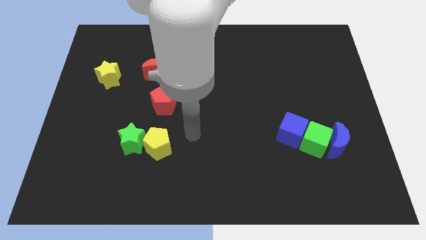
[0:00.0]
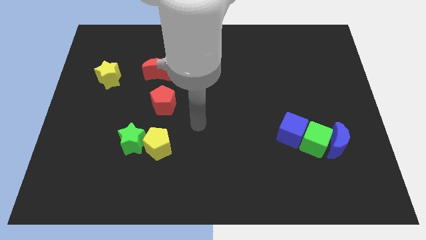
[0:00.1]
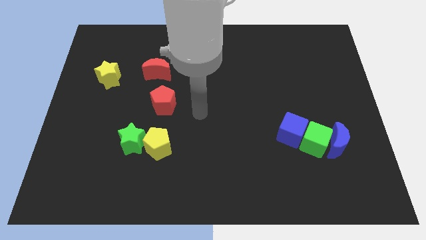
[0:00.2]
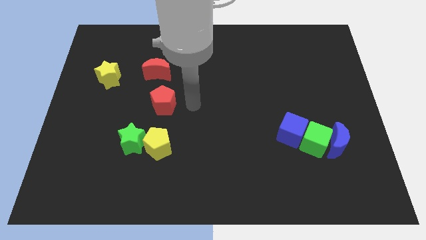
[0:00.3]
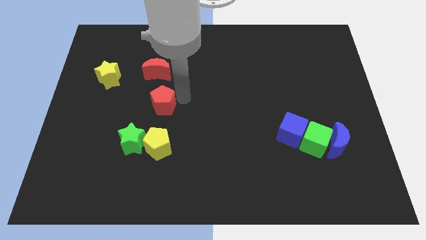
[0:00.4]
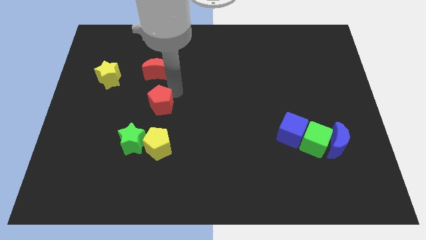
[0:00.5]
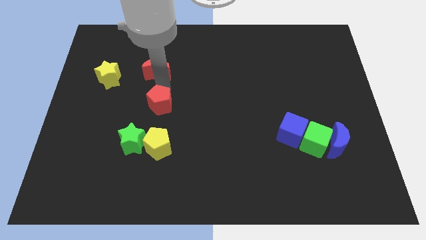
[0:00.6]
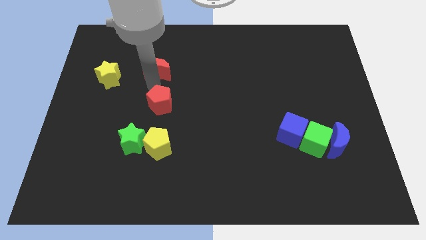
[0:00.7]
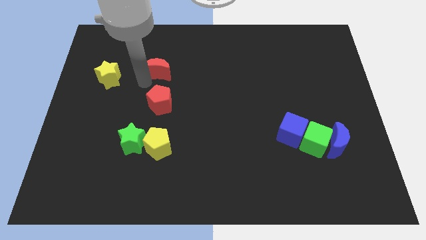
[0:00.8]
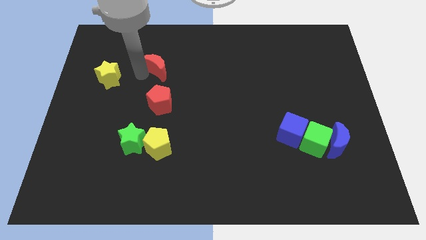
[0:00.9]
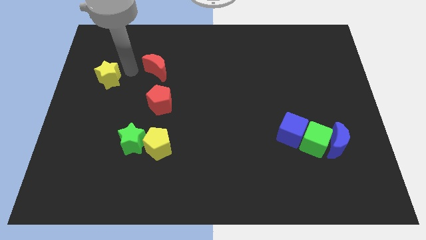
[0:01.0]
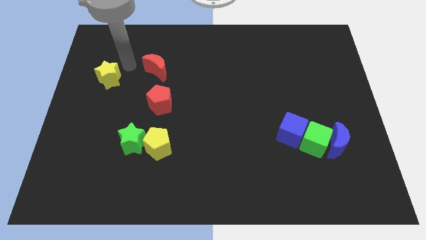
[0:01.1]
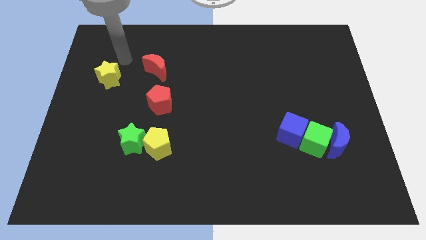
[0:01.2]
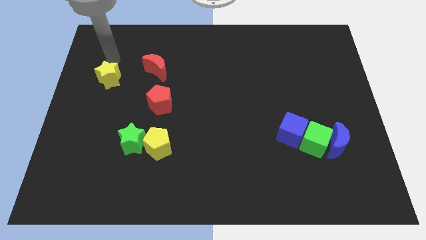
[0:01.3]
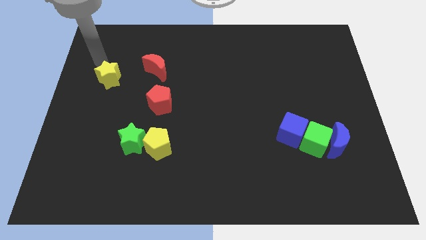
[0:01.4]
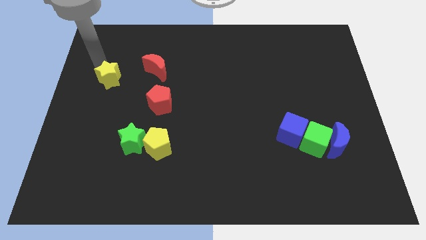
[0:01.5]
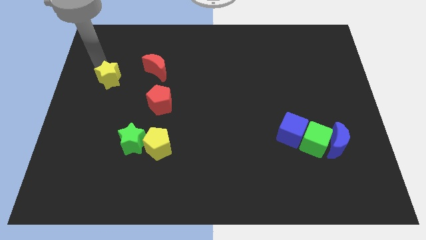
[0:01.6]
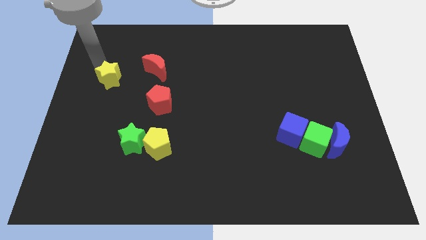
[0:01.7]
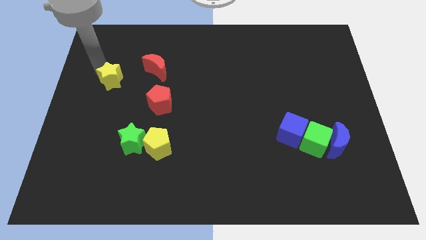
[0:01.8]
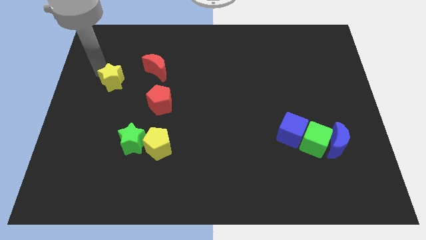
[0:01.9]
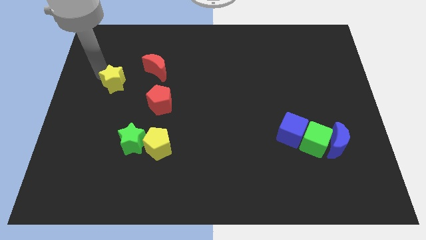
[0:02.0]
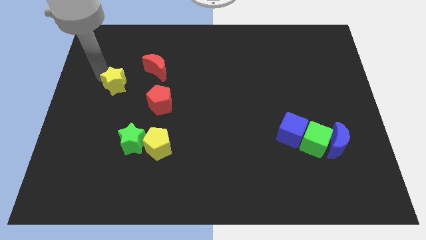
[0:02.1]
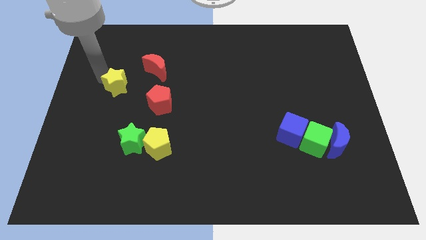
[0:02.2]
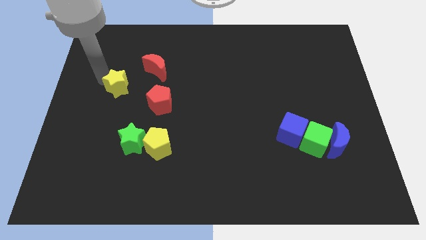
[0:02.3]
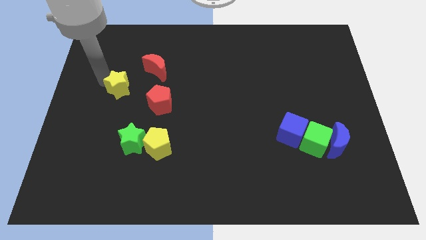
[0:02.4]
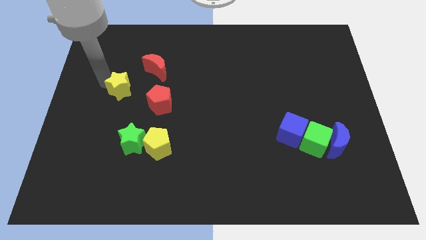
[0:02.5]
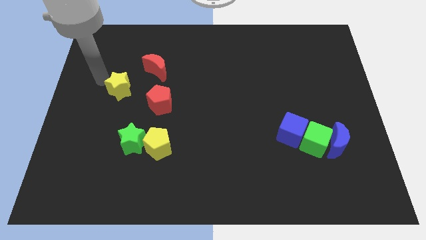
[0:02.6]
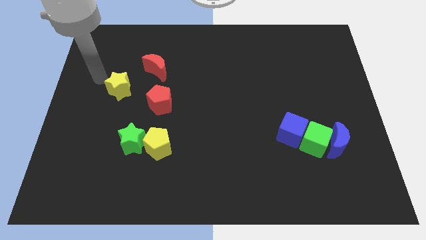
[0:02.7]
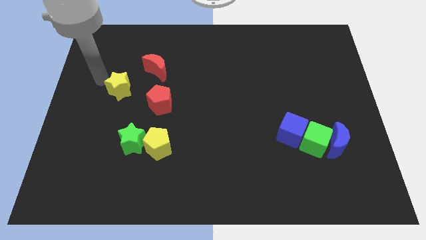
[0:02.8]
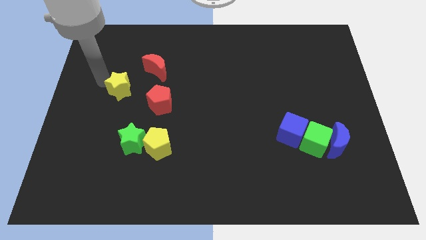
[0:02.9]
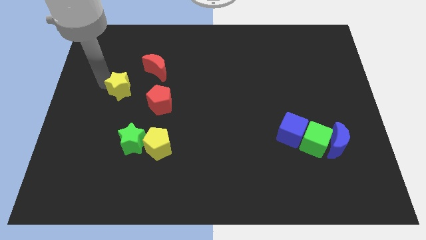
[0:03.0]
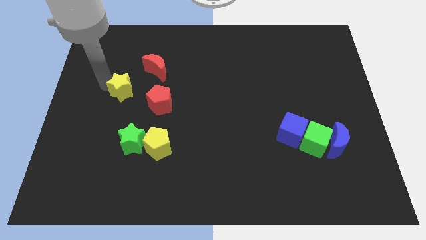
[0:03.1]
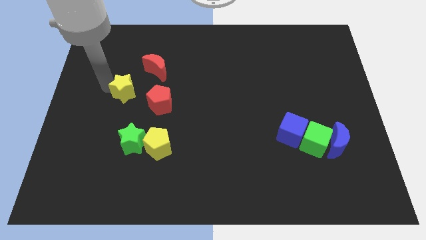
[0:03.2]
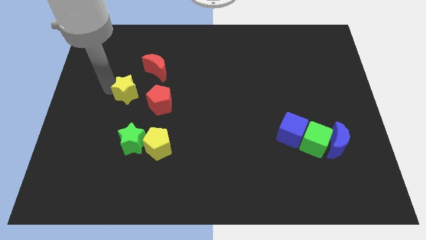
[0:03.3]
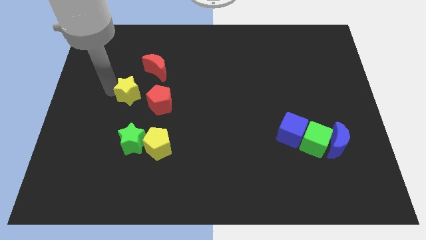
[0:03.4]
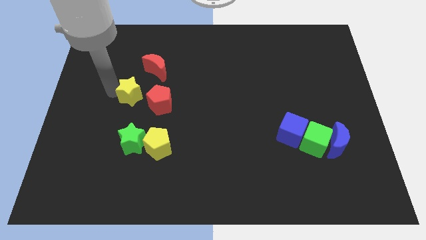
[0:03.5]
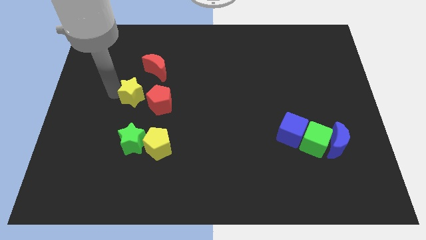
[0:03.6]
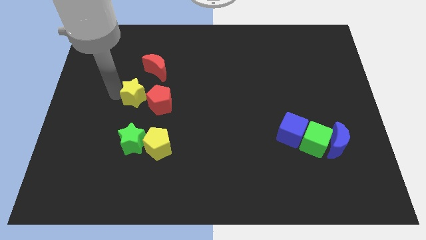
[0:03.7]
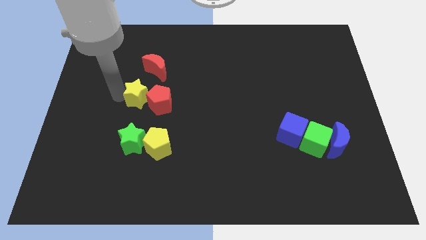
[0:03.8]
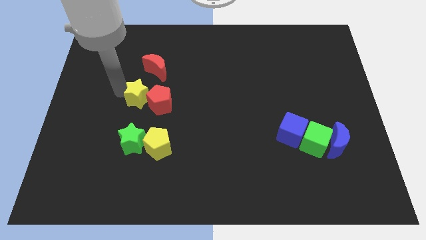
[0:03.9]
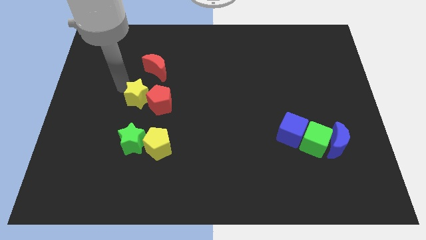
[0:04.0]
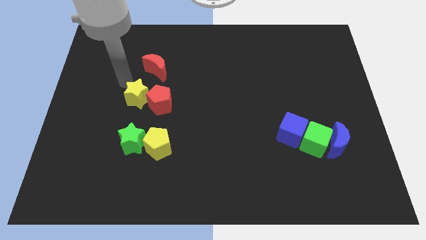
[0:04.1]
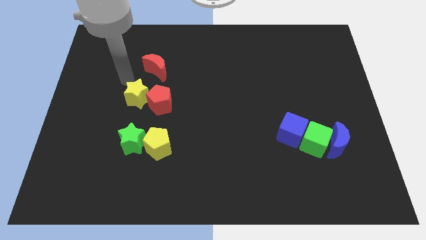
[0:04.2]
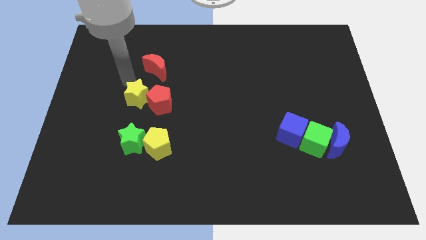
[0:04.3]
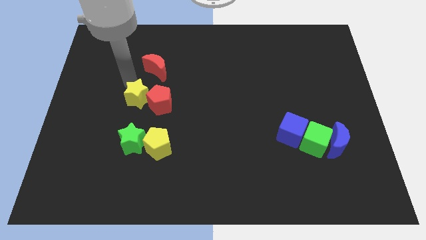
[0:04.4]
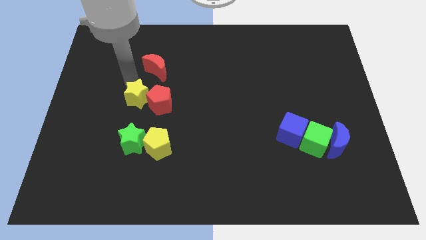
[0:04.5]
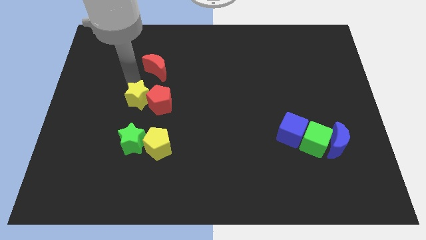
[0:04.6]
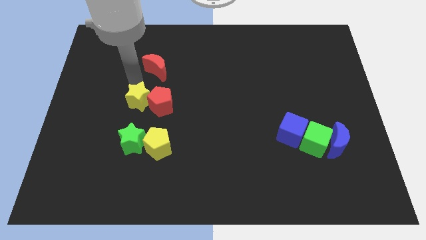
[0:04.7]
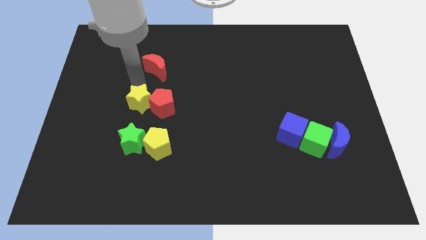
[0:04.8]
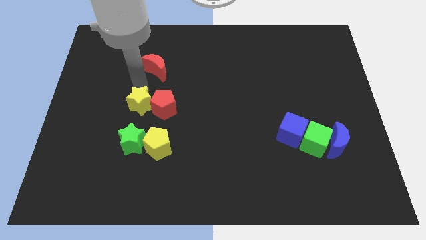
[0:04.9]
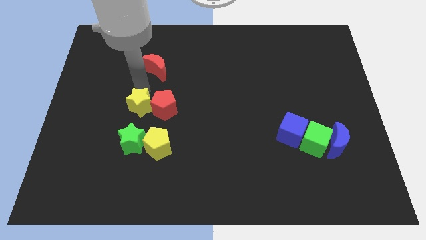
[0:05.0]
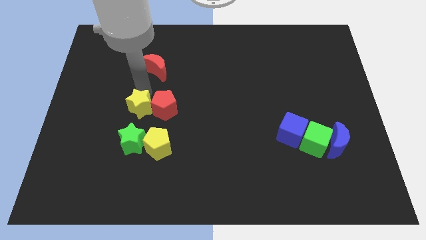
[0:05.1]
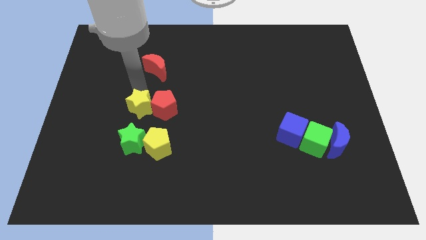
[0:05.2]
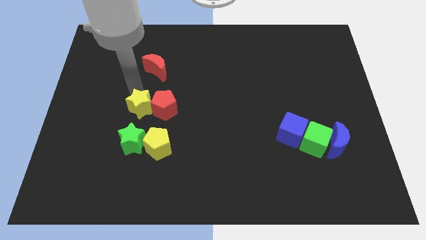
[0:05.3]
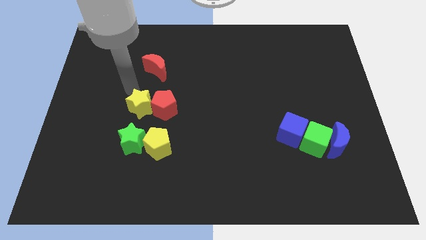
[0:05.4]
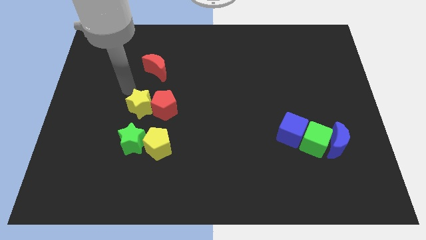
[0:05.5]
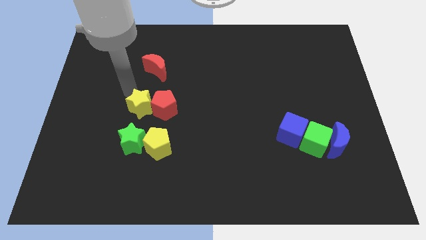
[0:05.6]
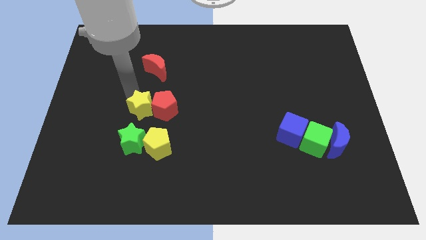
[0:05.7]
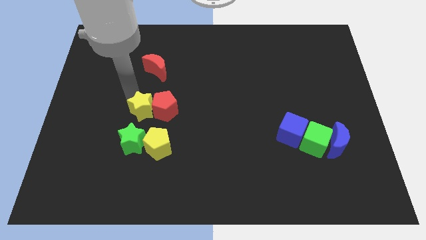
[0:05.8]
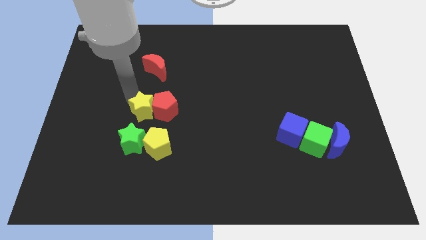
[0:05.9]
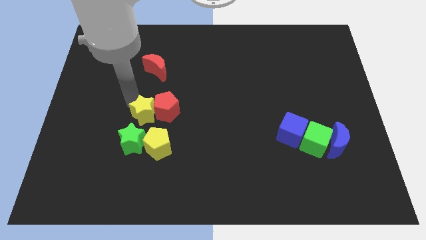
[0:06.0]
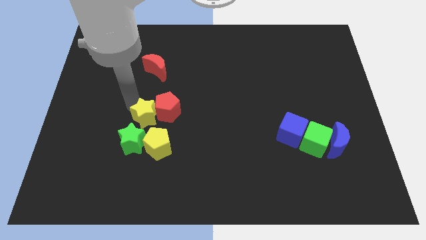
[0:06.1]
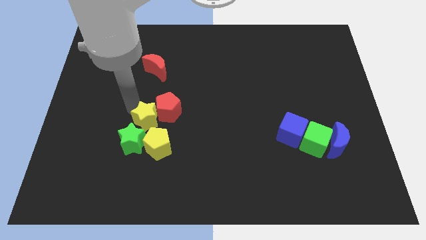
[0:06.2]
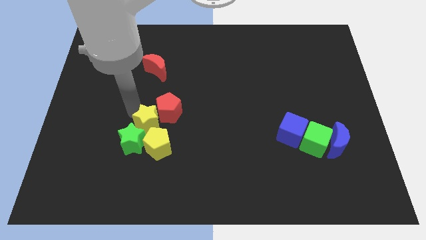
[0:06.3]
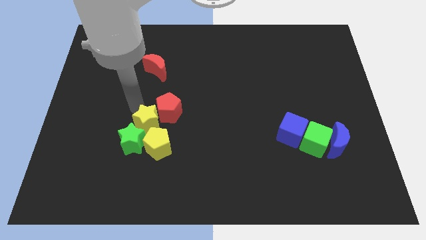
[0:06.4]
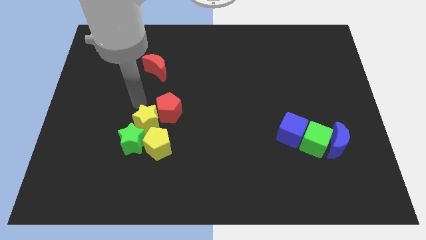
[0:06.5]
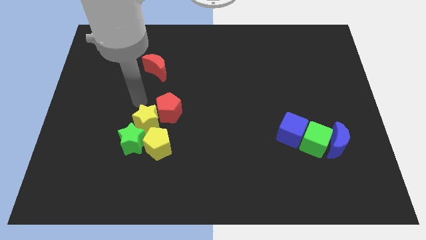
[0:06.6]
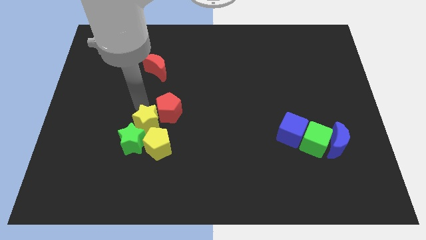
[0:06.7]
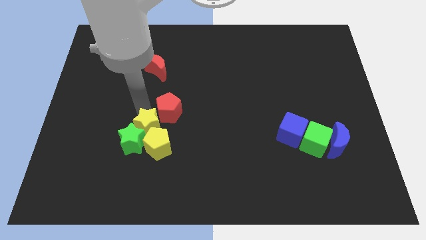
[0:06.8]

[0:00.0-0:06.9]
push the yellow star next to the yellow pentagon

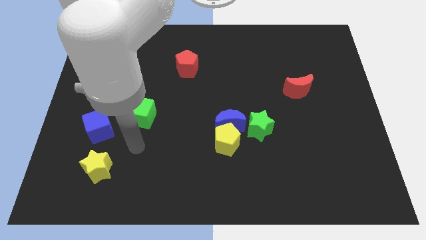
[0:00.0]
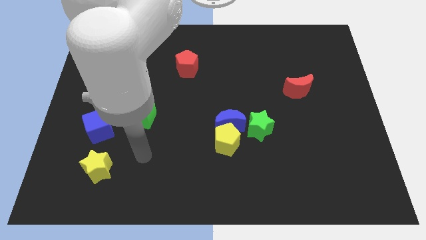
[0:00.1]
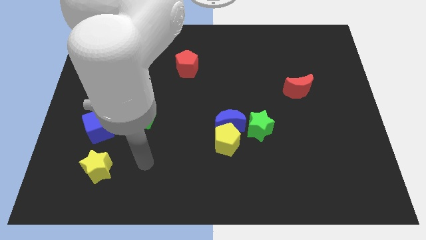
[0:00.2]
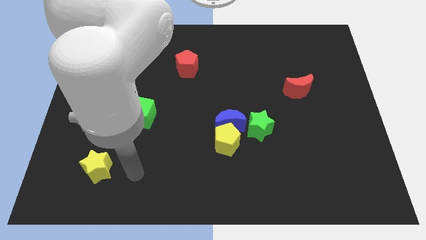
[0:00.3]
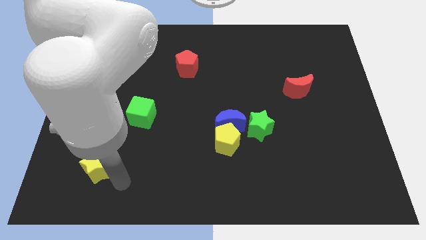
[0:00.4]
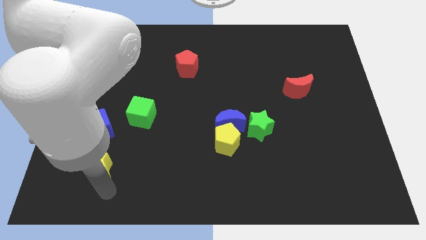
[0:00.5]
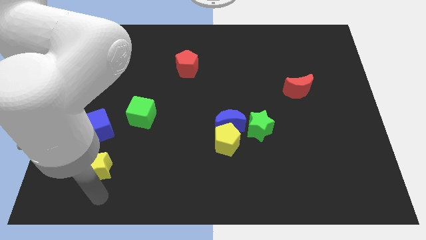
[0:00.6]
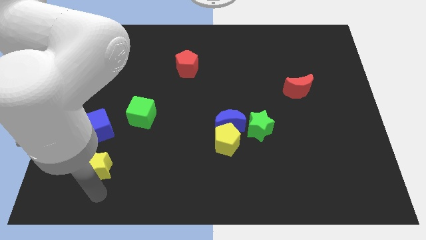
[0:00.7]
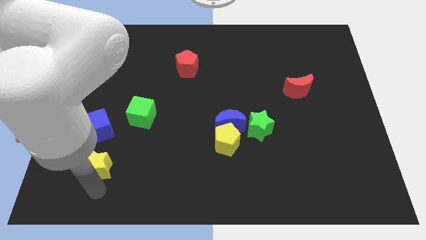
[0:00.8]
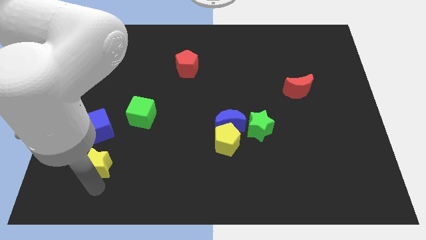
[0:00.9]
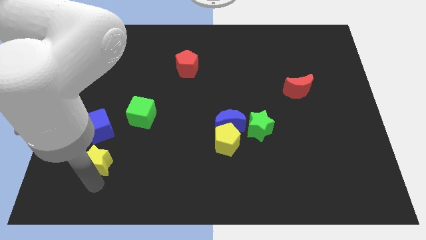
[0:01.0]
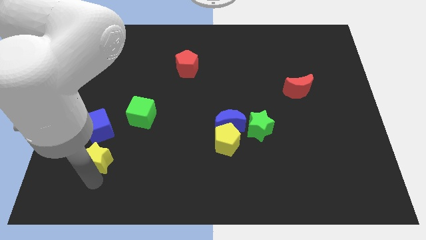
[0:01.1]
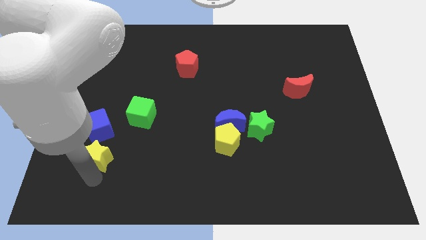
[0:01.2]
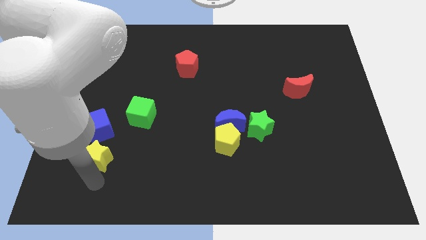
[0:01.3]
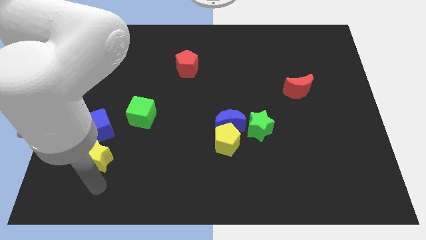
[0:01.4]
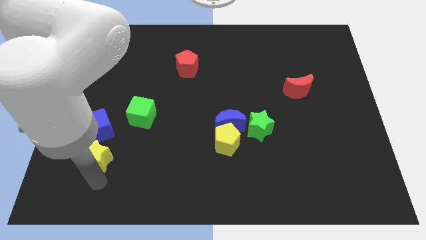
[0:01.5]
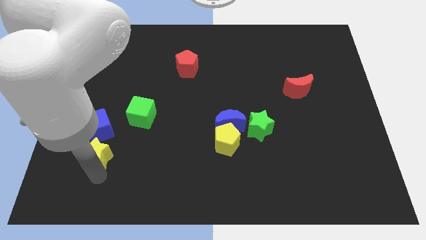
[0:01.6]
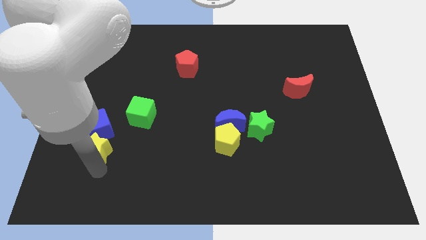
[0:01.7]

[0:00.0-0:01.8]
slide the yellow star close to the blue cube
